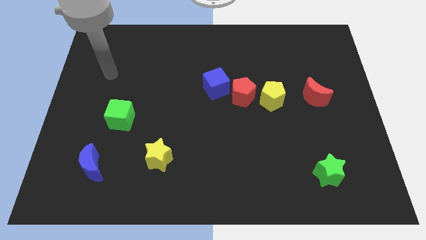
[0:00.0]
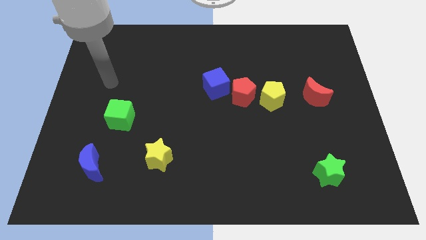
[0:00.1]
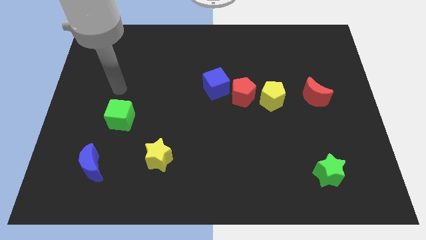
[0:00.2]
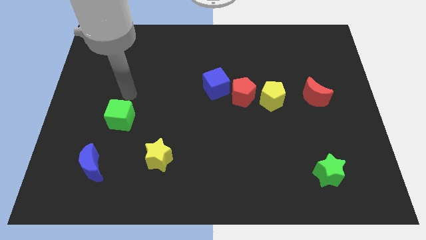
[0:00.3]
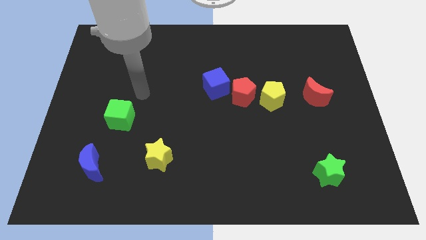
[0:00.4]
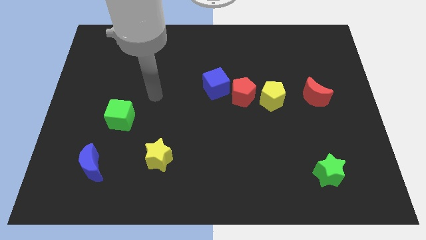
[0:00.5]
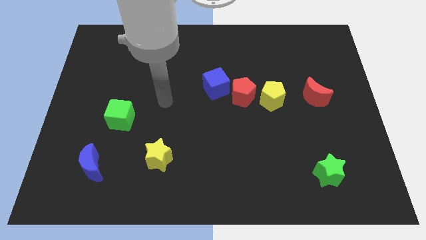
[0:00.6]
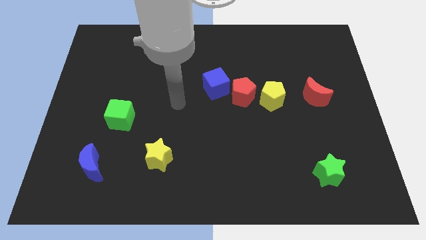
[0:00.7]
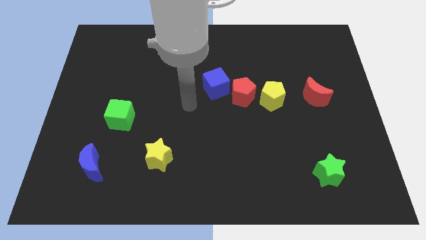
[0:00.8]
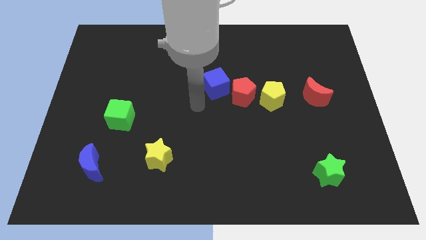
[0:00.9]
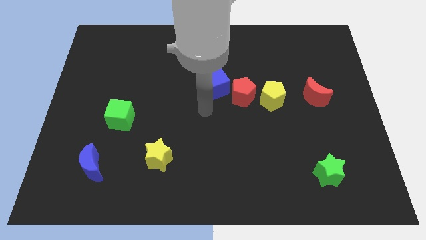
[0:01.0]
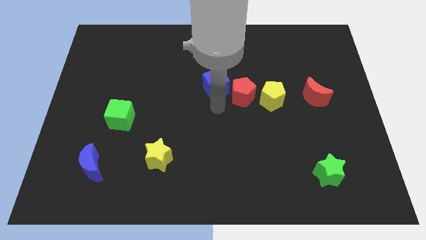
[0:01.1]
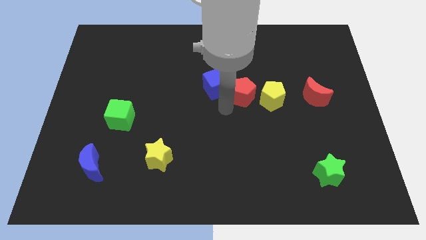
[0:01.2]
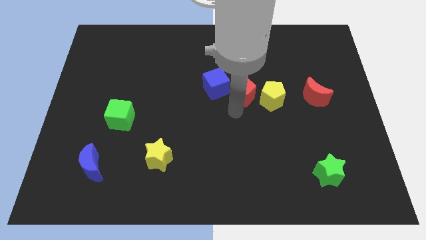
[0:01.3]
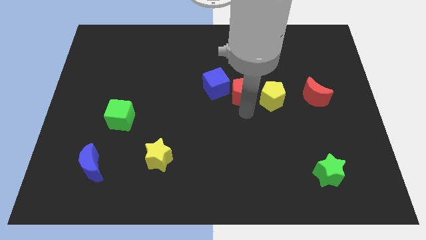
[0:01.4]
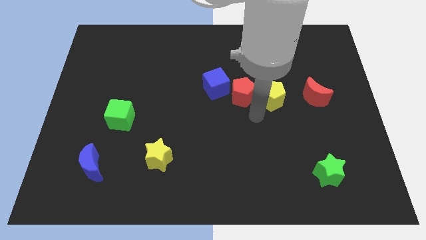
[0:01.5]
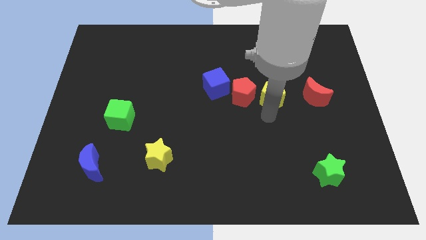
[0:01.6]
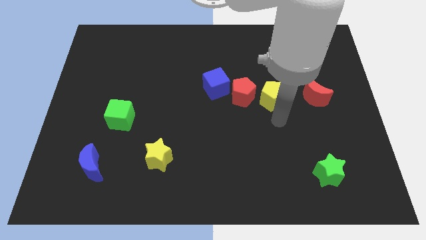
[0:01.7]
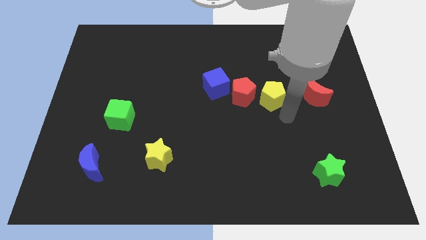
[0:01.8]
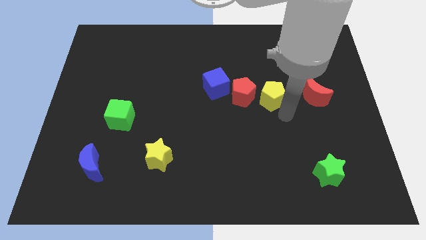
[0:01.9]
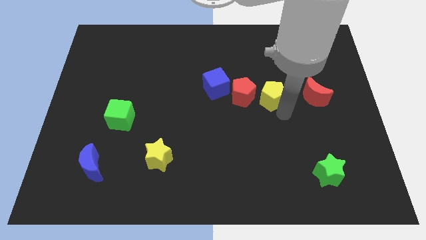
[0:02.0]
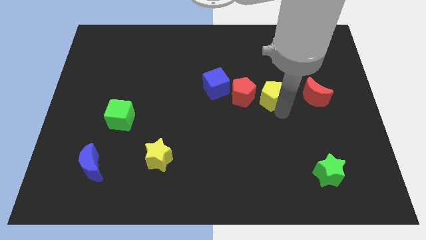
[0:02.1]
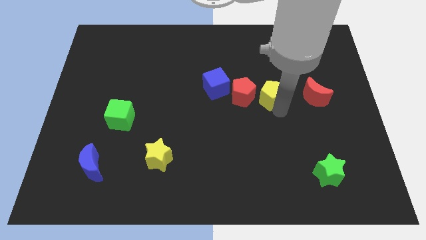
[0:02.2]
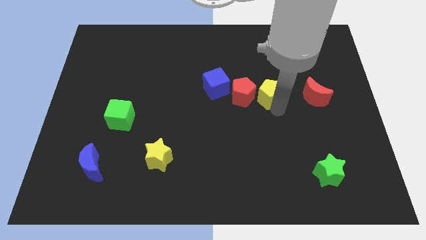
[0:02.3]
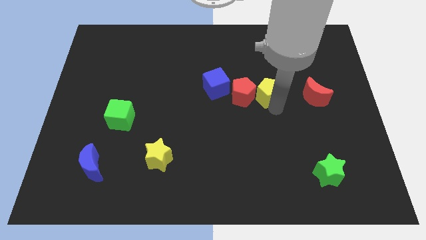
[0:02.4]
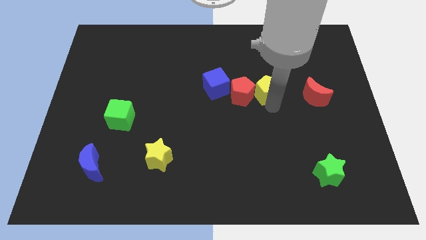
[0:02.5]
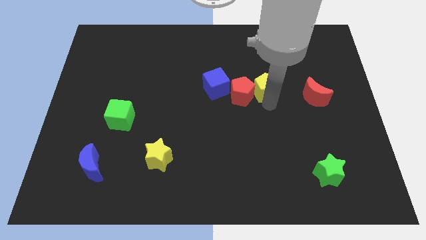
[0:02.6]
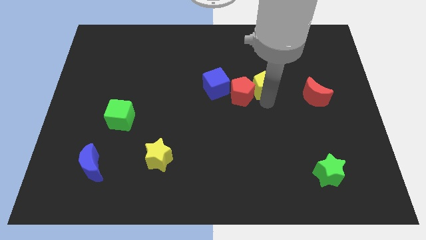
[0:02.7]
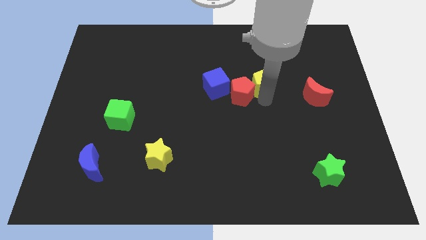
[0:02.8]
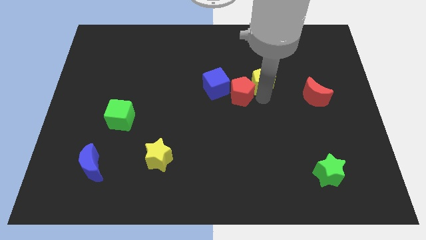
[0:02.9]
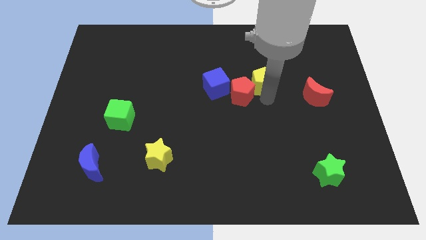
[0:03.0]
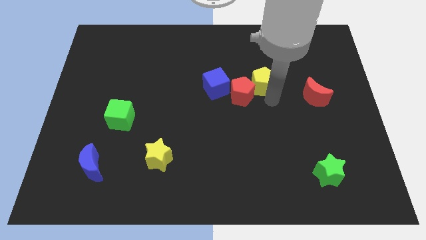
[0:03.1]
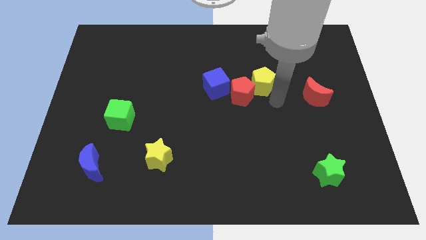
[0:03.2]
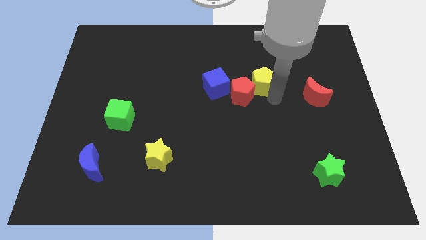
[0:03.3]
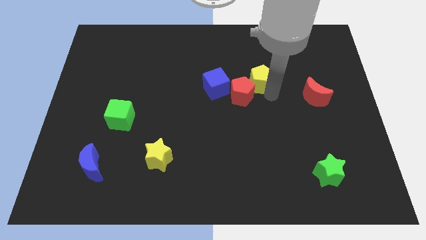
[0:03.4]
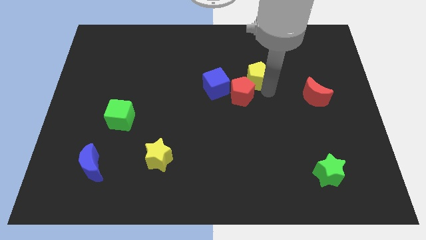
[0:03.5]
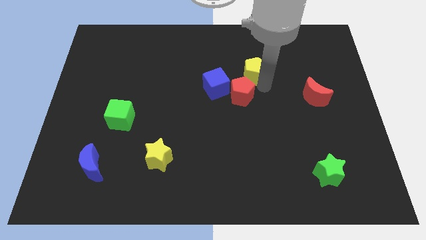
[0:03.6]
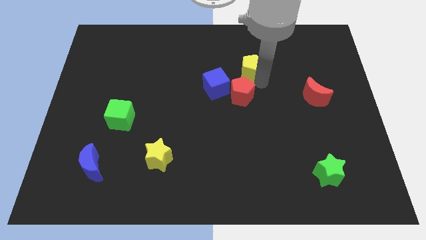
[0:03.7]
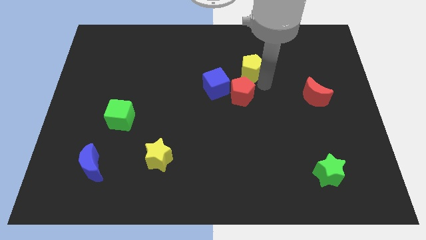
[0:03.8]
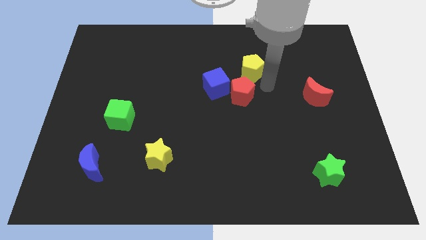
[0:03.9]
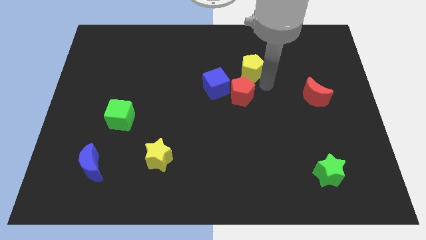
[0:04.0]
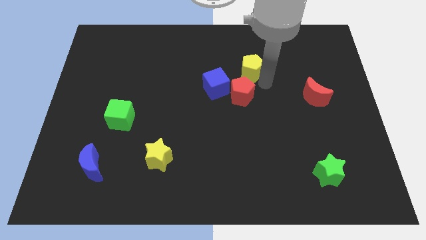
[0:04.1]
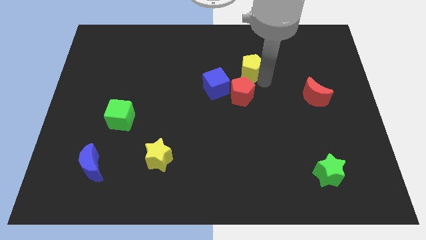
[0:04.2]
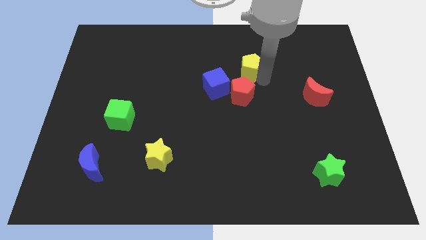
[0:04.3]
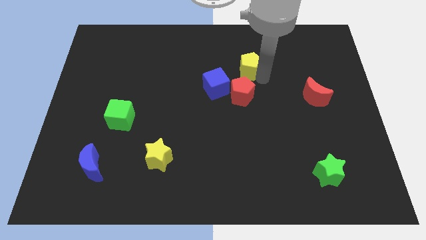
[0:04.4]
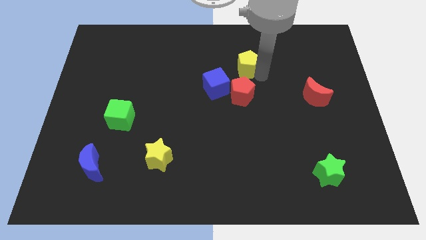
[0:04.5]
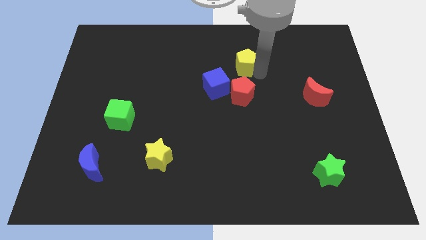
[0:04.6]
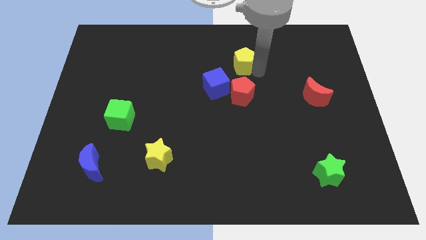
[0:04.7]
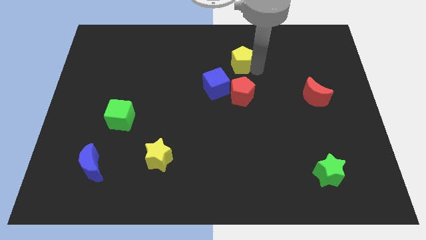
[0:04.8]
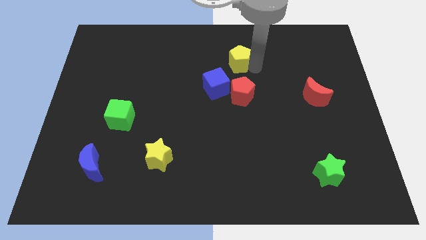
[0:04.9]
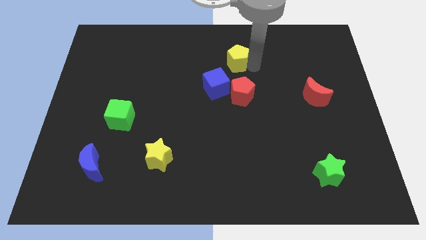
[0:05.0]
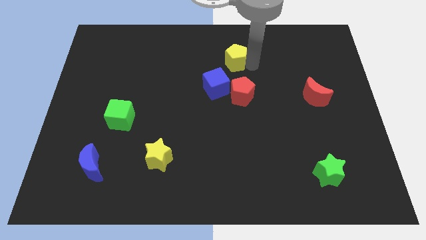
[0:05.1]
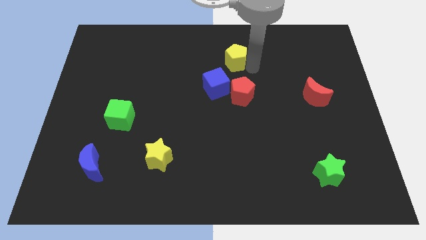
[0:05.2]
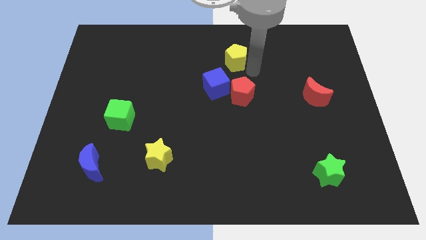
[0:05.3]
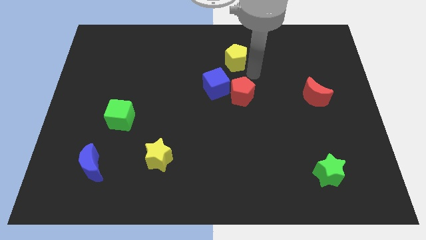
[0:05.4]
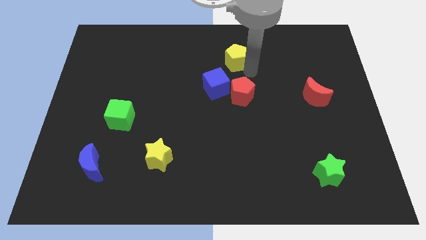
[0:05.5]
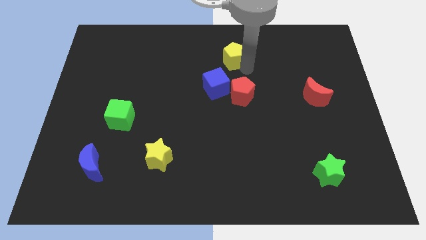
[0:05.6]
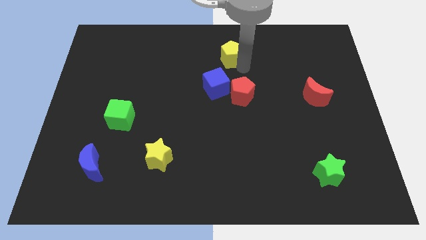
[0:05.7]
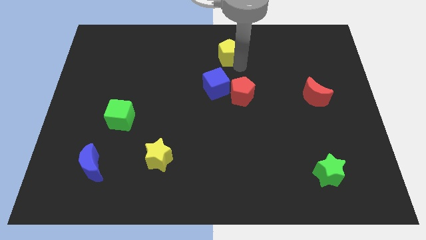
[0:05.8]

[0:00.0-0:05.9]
put the yellow pentagon to the top
